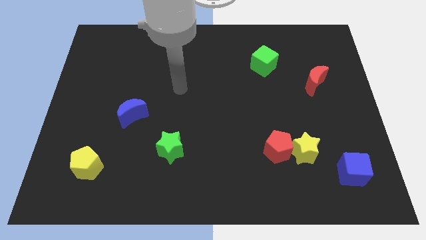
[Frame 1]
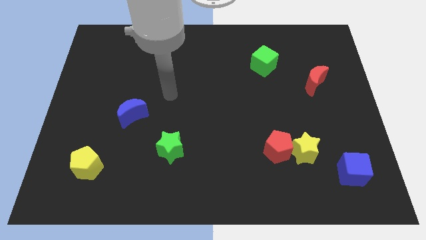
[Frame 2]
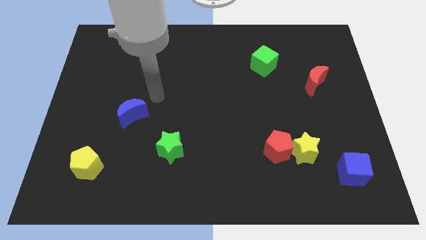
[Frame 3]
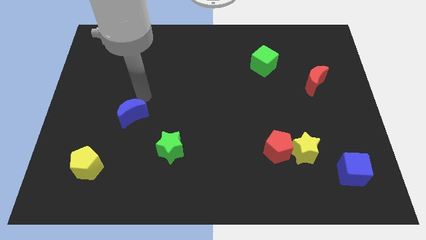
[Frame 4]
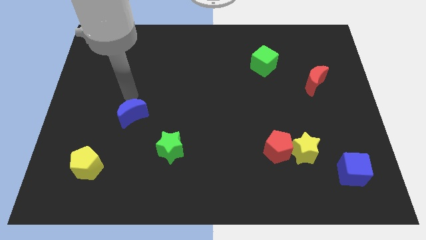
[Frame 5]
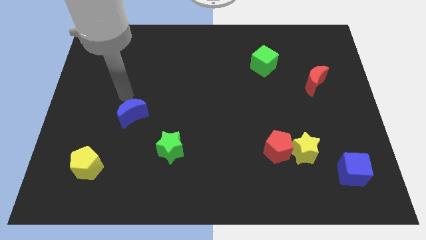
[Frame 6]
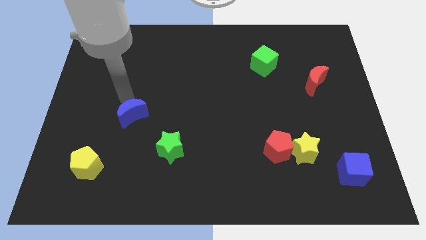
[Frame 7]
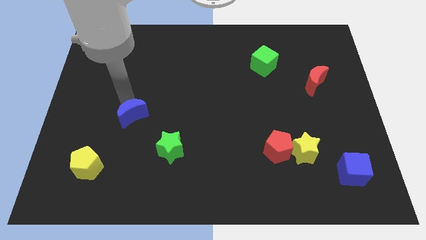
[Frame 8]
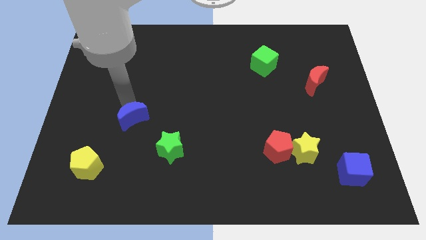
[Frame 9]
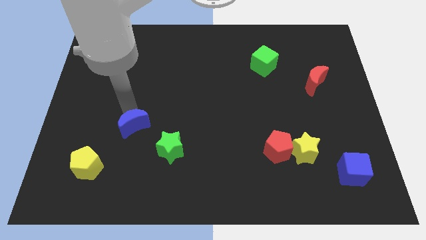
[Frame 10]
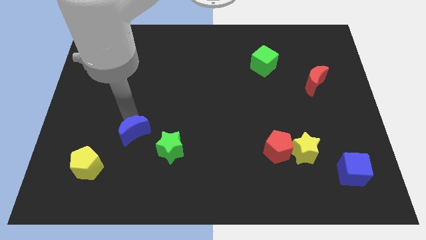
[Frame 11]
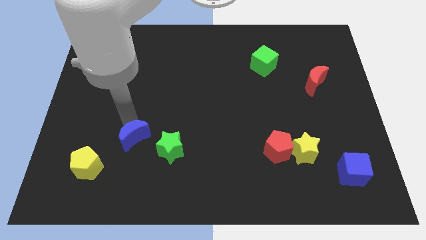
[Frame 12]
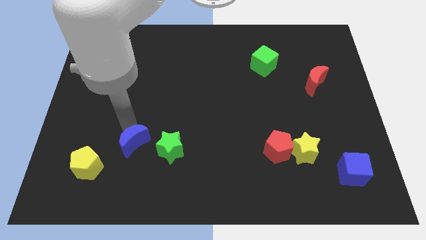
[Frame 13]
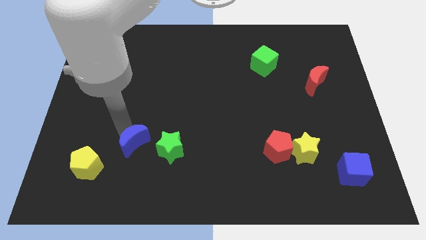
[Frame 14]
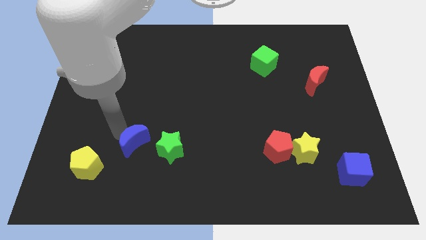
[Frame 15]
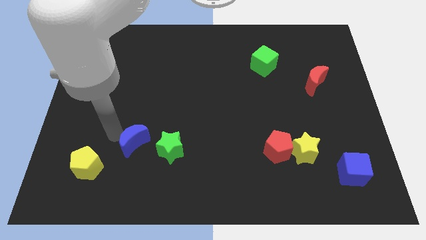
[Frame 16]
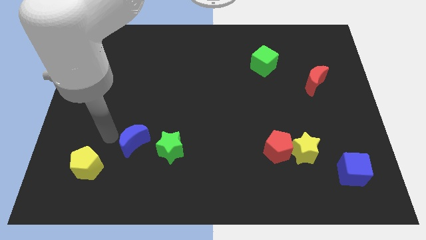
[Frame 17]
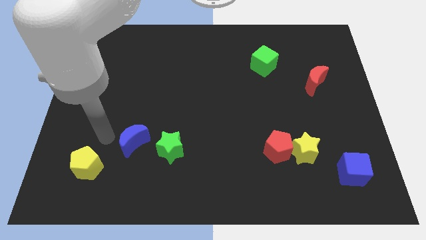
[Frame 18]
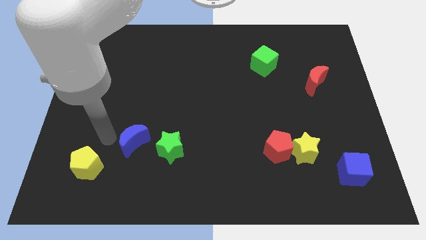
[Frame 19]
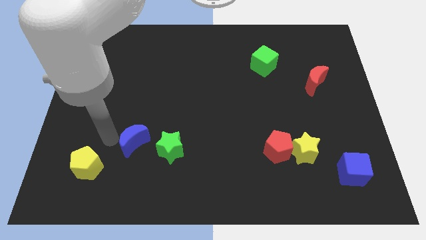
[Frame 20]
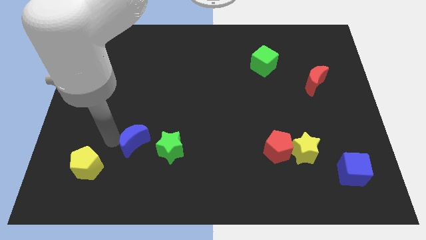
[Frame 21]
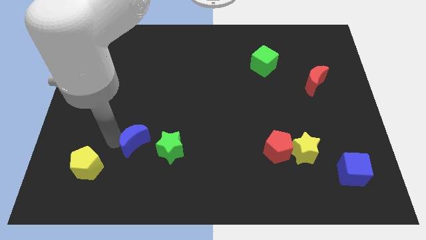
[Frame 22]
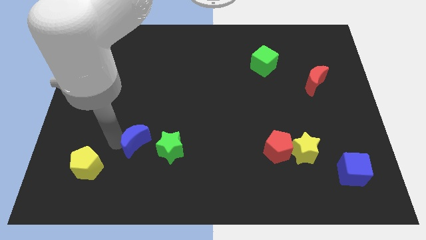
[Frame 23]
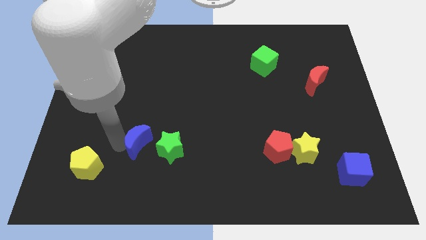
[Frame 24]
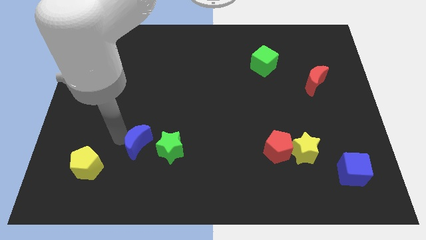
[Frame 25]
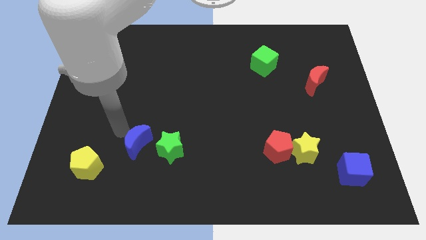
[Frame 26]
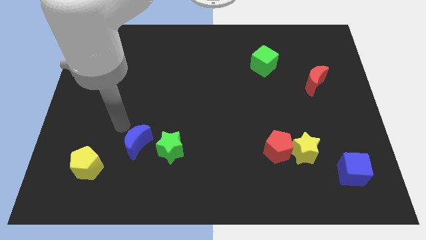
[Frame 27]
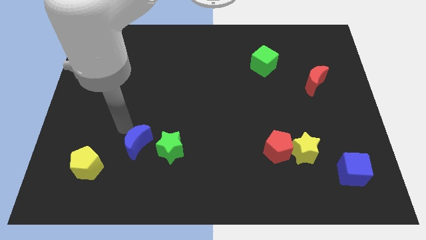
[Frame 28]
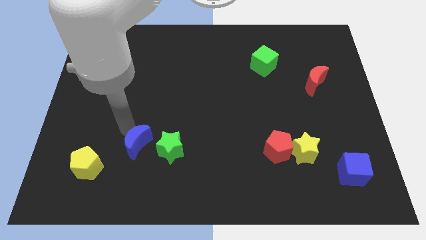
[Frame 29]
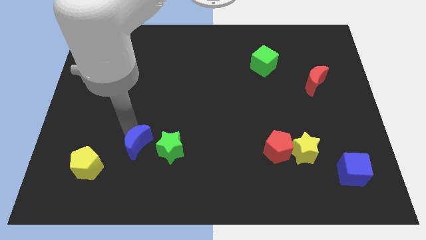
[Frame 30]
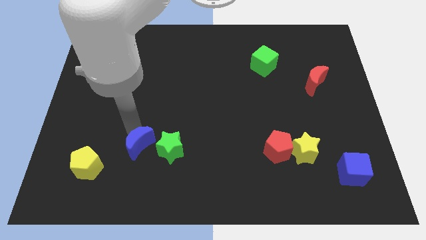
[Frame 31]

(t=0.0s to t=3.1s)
slide the blue moon downwards and to the right diagonally slightly

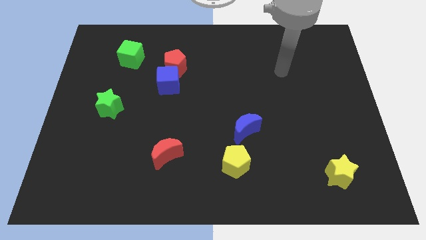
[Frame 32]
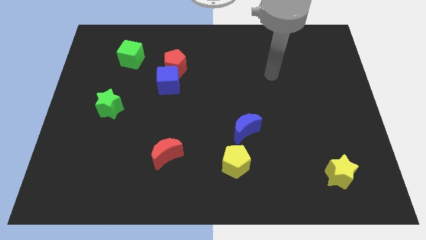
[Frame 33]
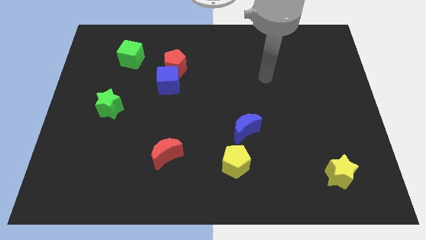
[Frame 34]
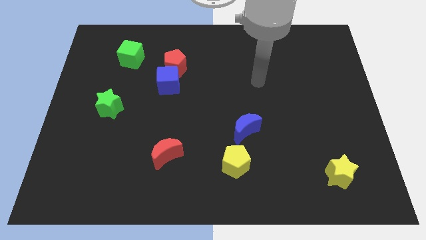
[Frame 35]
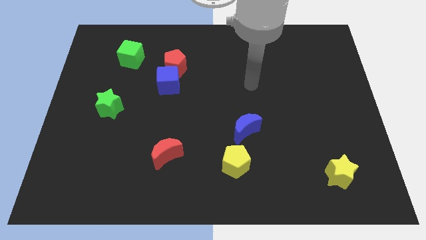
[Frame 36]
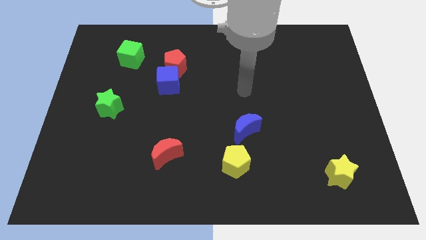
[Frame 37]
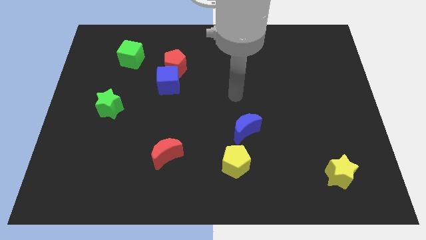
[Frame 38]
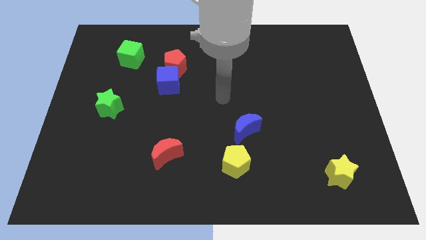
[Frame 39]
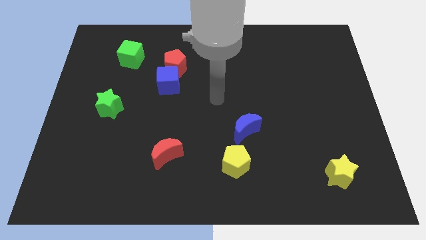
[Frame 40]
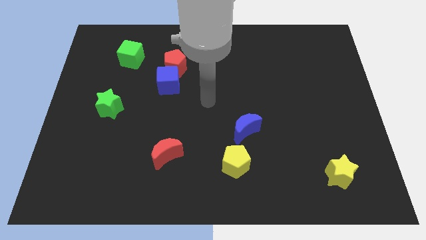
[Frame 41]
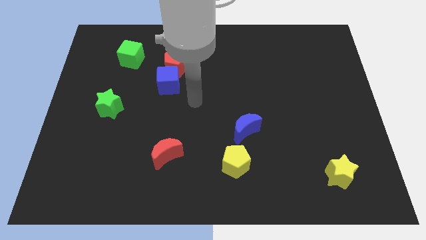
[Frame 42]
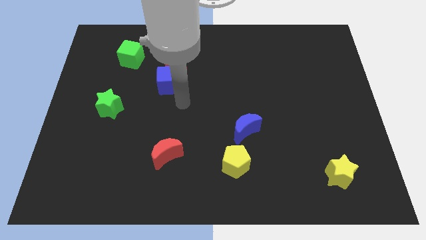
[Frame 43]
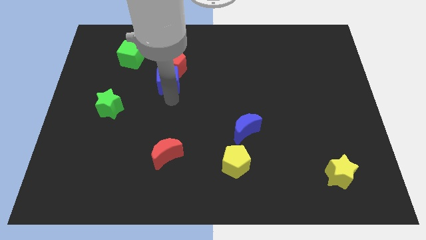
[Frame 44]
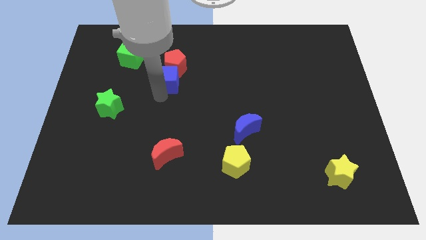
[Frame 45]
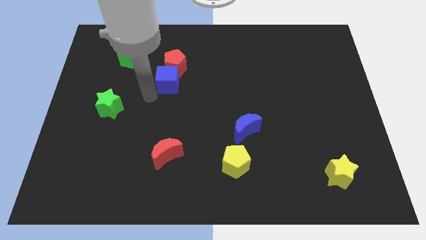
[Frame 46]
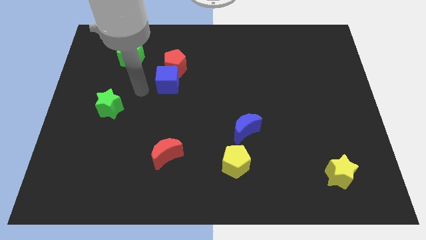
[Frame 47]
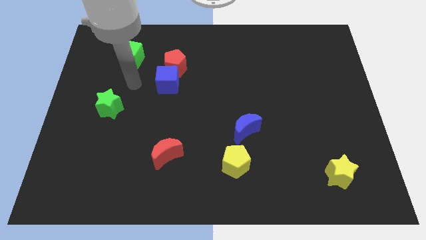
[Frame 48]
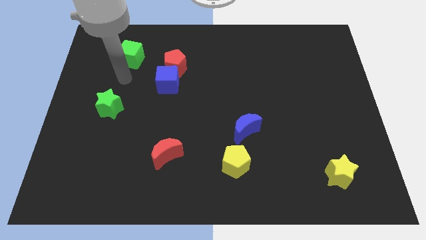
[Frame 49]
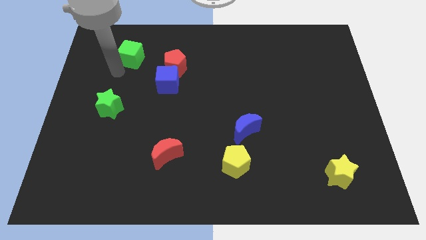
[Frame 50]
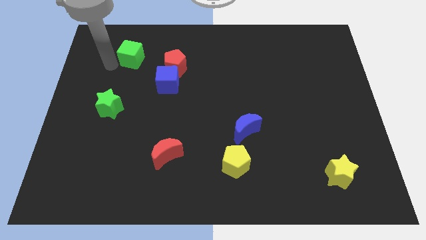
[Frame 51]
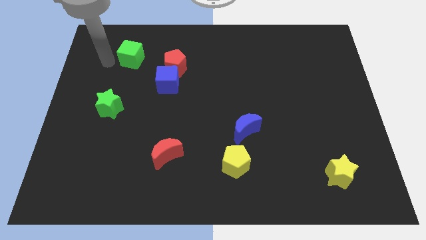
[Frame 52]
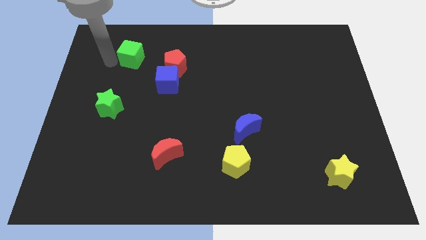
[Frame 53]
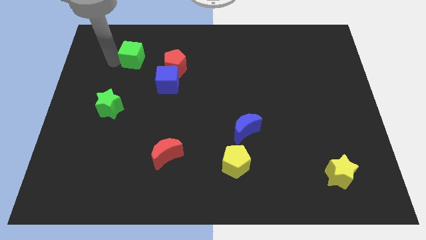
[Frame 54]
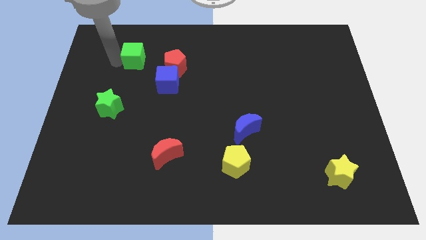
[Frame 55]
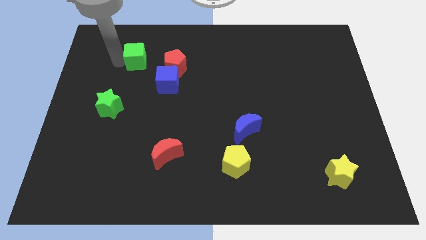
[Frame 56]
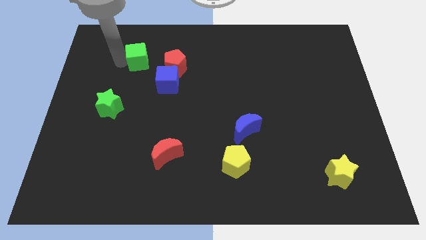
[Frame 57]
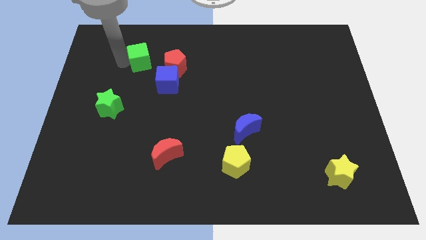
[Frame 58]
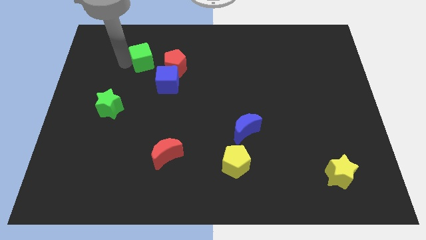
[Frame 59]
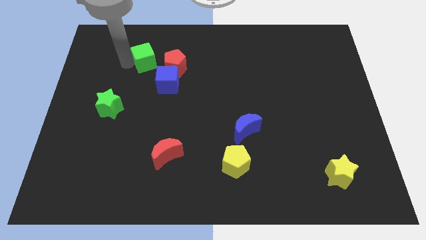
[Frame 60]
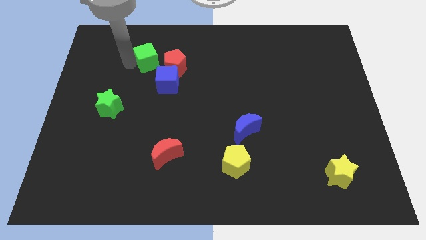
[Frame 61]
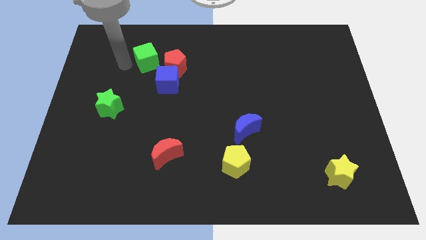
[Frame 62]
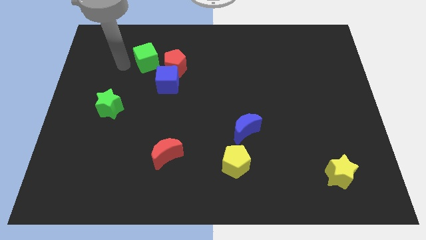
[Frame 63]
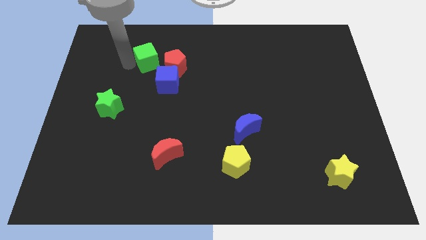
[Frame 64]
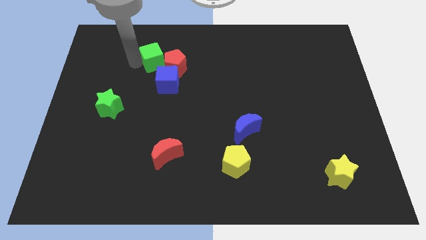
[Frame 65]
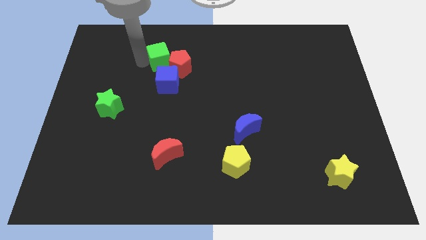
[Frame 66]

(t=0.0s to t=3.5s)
slide the green cube somewhat right

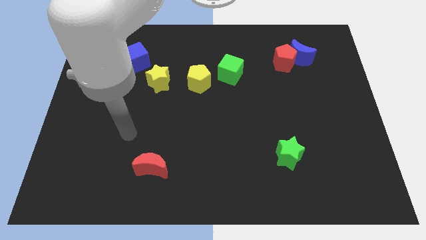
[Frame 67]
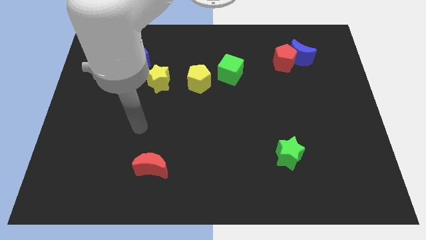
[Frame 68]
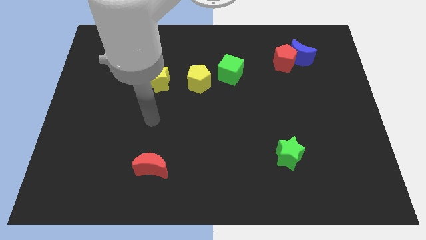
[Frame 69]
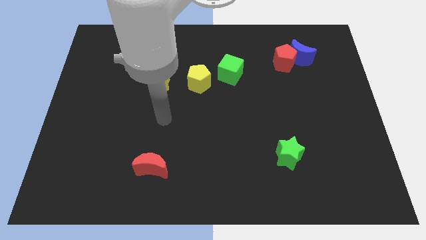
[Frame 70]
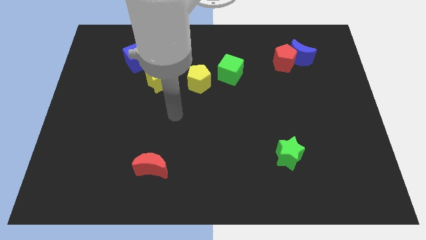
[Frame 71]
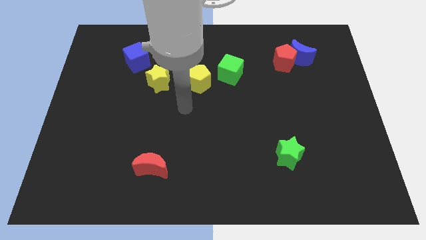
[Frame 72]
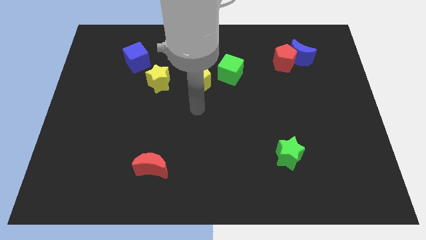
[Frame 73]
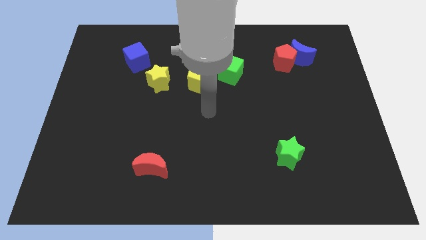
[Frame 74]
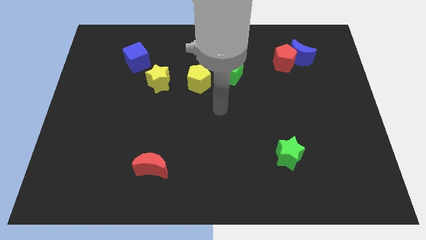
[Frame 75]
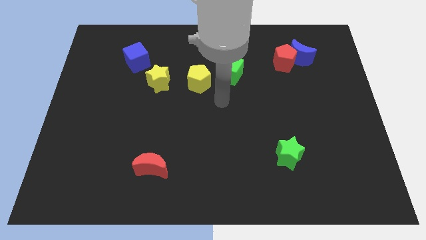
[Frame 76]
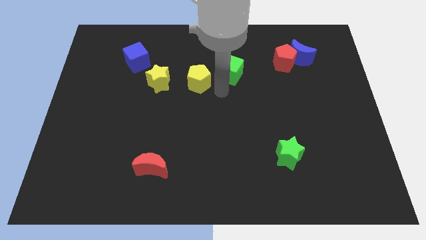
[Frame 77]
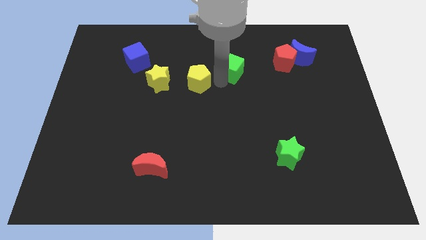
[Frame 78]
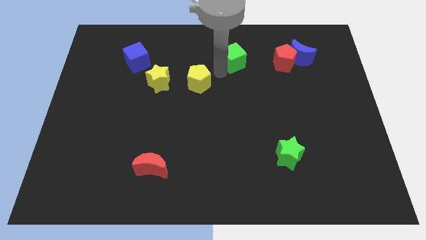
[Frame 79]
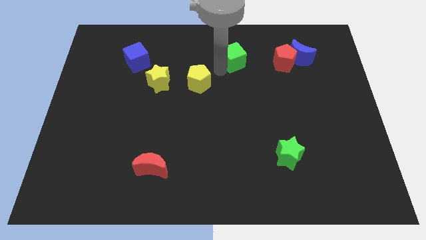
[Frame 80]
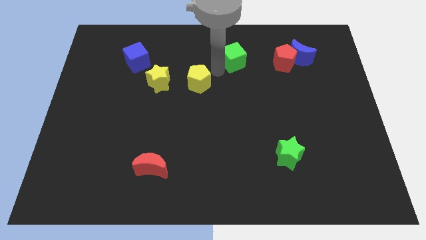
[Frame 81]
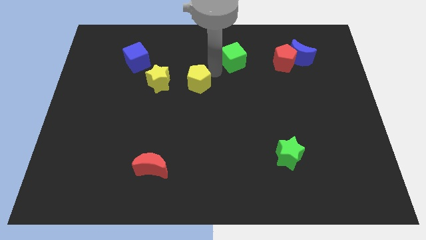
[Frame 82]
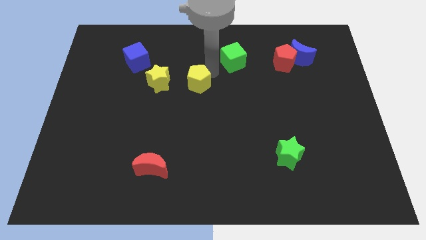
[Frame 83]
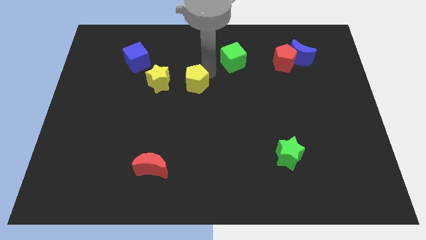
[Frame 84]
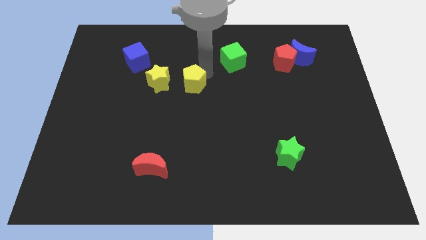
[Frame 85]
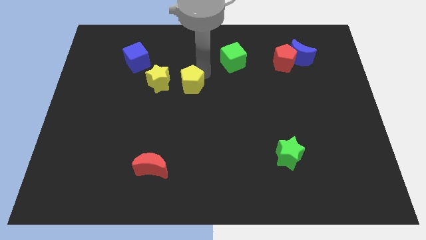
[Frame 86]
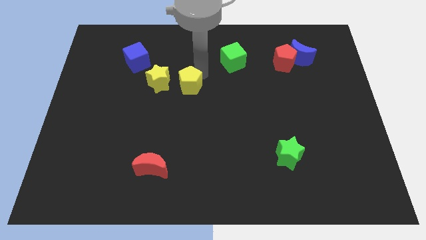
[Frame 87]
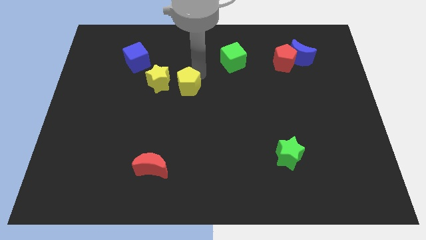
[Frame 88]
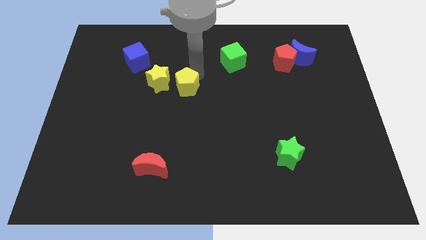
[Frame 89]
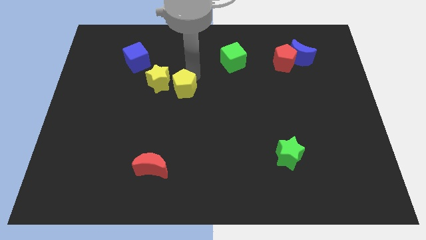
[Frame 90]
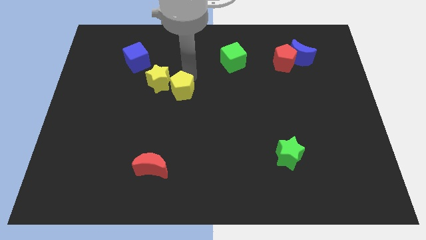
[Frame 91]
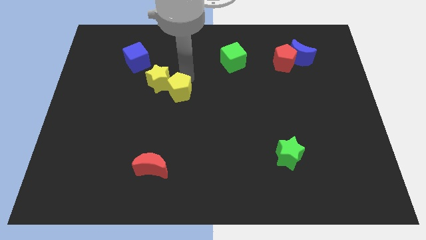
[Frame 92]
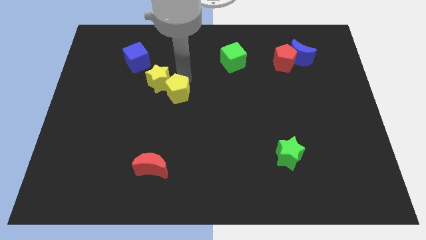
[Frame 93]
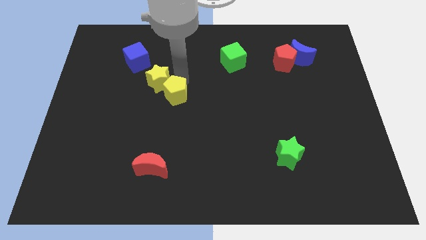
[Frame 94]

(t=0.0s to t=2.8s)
move the yellow pentagon a little bit down and left
